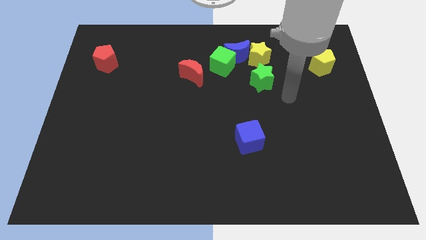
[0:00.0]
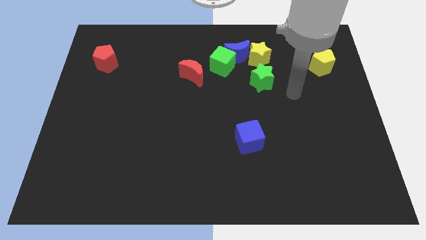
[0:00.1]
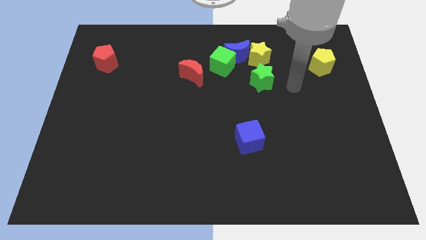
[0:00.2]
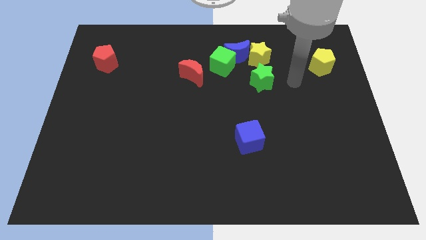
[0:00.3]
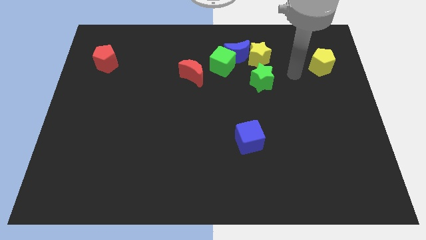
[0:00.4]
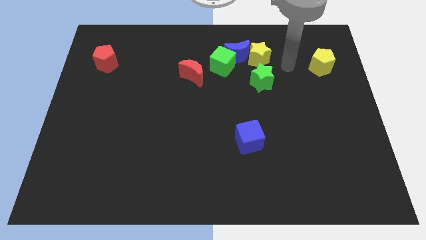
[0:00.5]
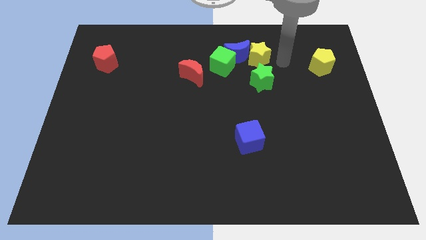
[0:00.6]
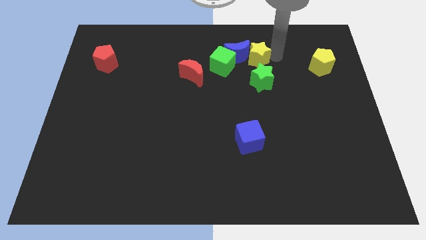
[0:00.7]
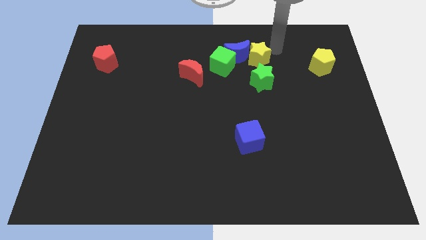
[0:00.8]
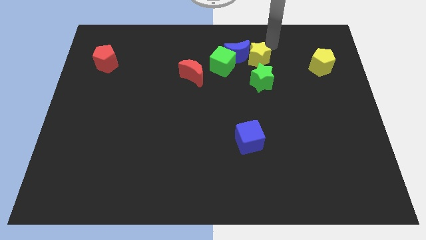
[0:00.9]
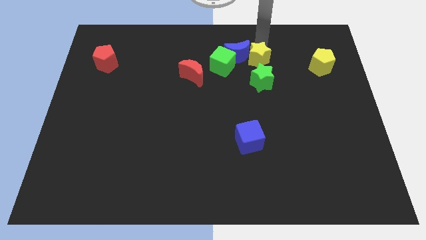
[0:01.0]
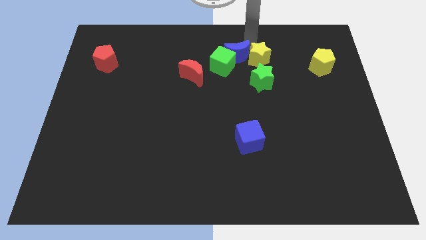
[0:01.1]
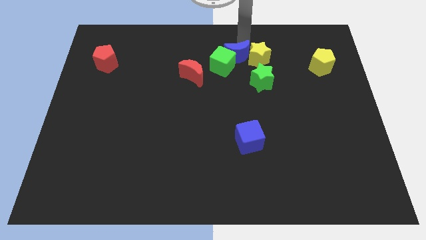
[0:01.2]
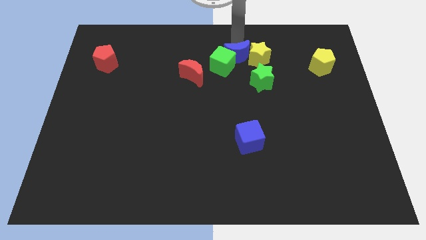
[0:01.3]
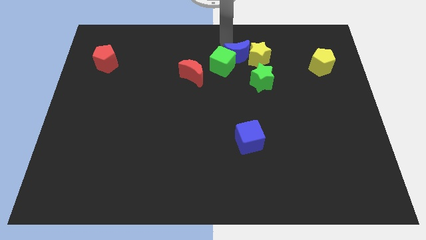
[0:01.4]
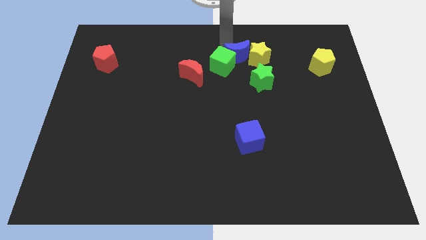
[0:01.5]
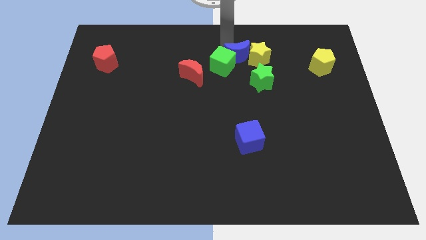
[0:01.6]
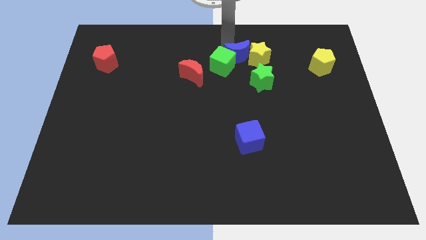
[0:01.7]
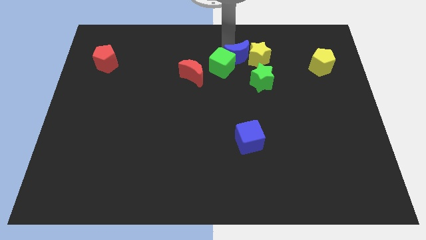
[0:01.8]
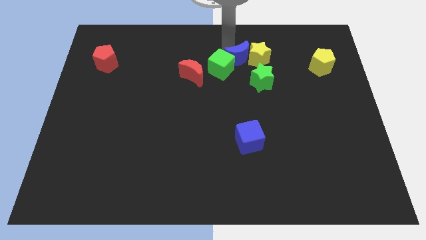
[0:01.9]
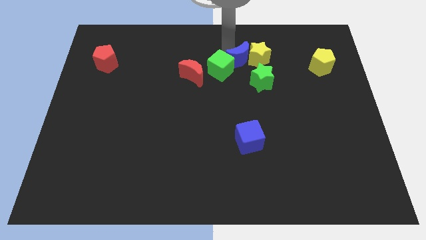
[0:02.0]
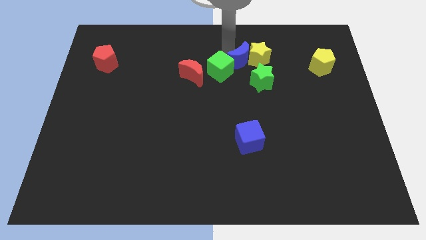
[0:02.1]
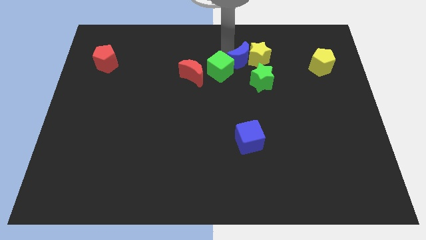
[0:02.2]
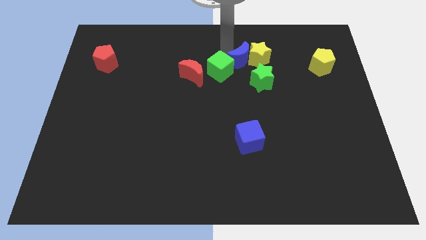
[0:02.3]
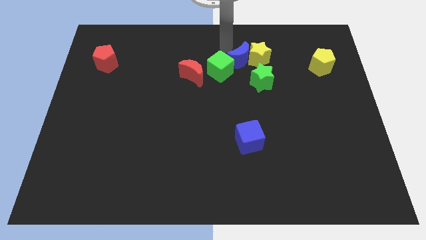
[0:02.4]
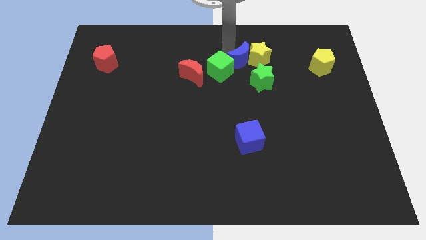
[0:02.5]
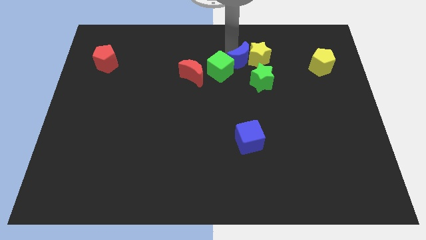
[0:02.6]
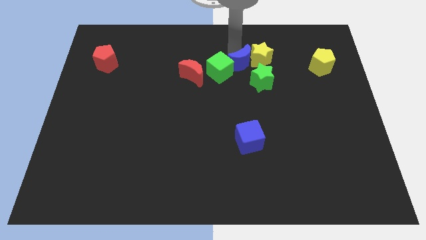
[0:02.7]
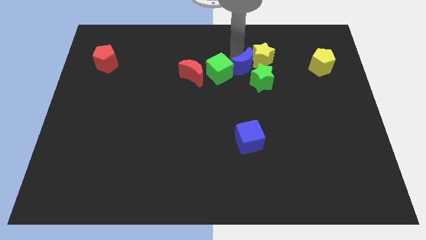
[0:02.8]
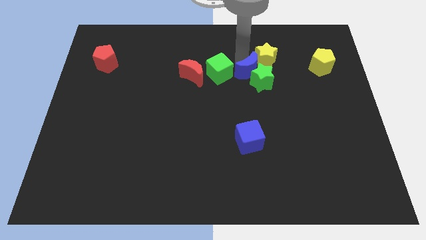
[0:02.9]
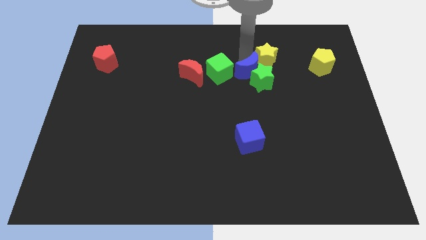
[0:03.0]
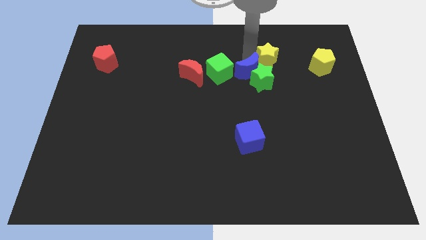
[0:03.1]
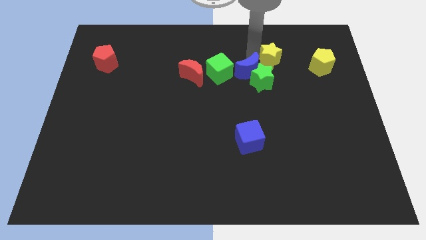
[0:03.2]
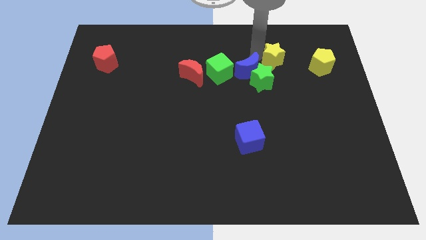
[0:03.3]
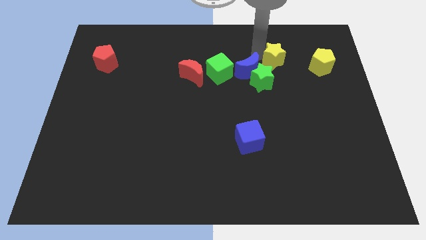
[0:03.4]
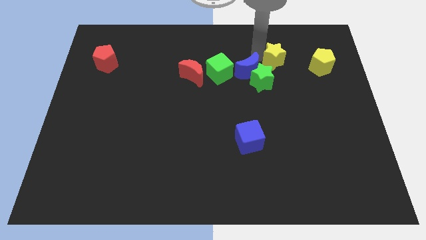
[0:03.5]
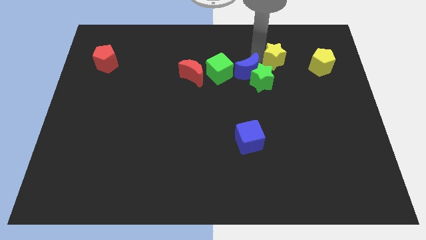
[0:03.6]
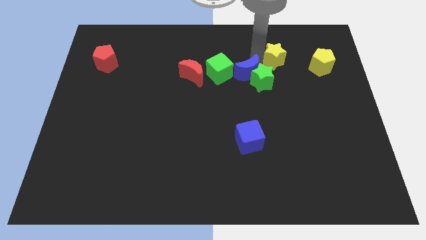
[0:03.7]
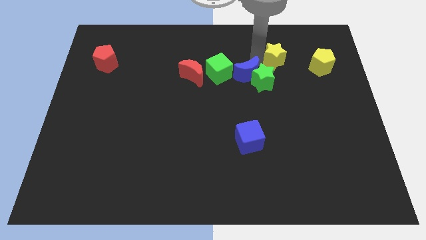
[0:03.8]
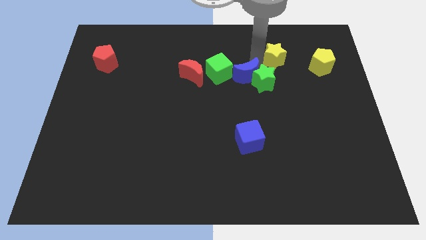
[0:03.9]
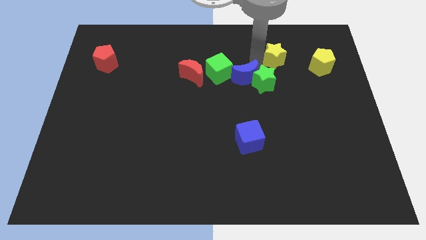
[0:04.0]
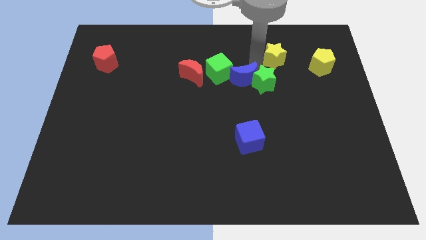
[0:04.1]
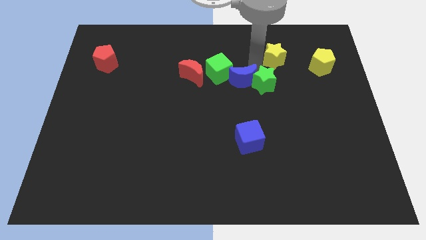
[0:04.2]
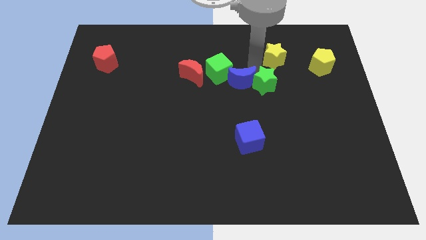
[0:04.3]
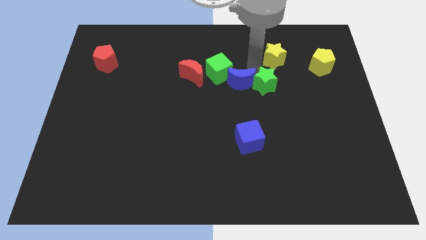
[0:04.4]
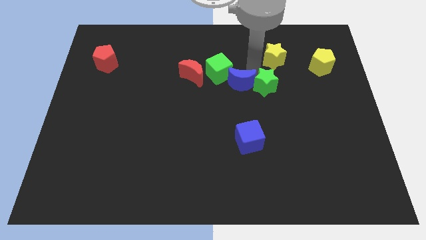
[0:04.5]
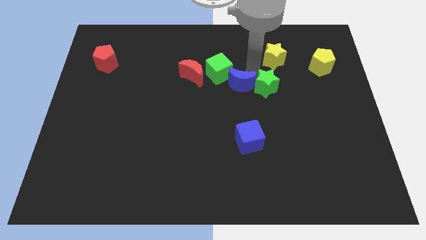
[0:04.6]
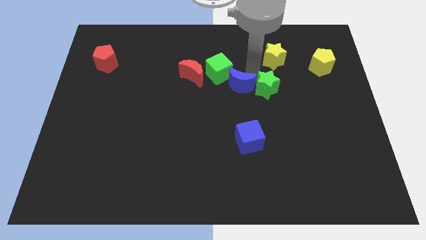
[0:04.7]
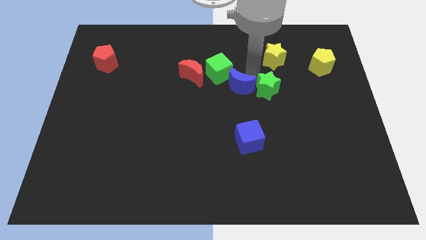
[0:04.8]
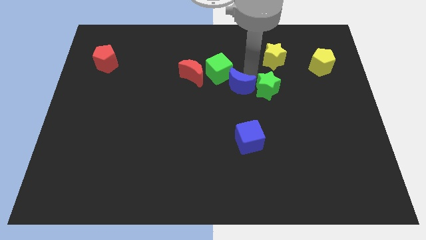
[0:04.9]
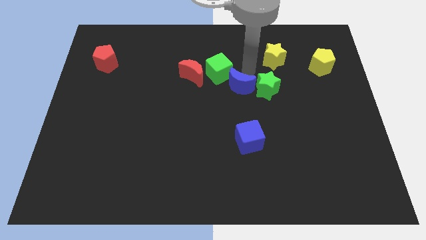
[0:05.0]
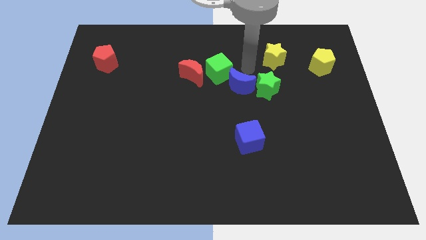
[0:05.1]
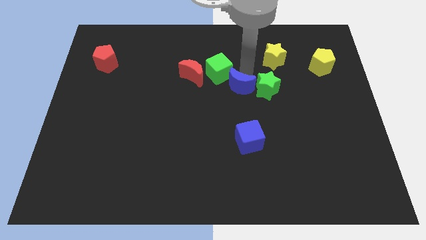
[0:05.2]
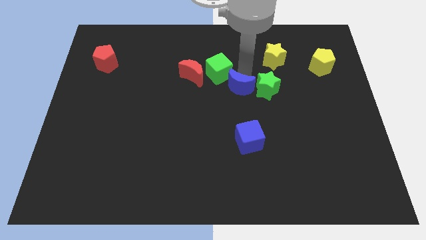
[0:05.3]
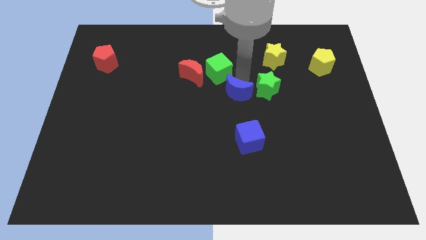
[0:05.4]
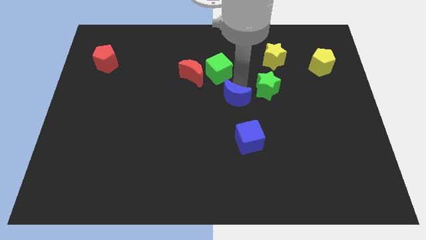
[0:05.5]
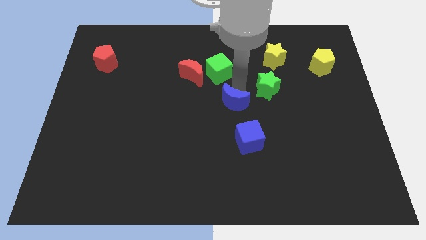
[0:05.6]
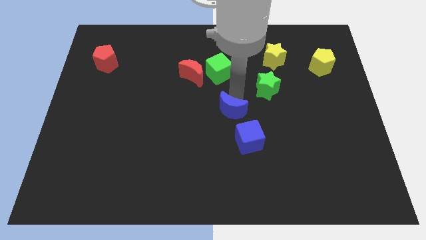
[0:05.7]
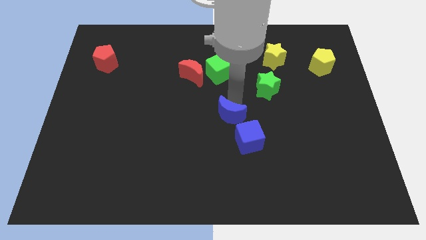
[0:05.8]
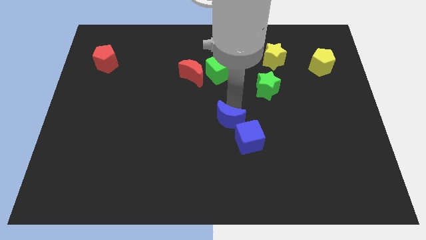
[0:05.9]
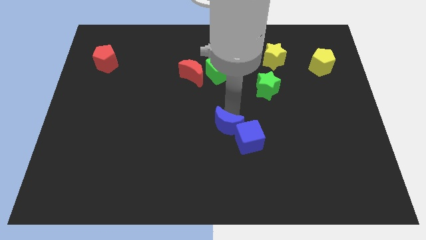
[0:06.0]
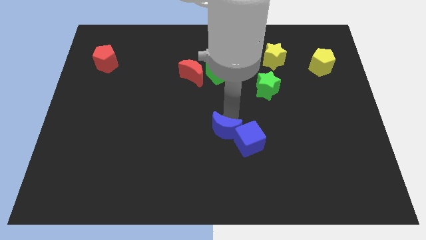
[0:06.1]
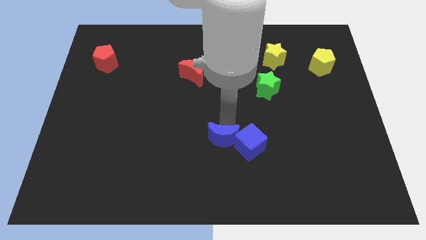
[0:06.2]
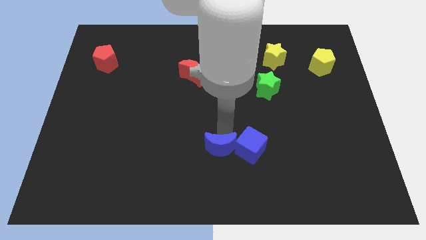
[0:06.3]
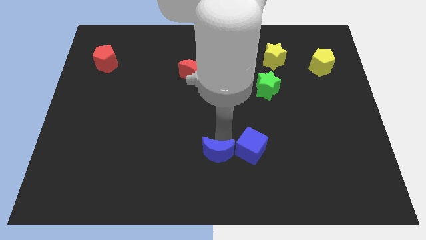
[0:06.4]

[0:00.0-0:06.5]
push the blue moon to the bottom side
